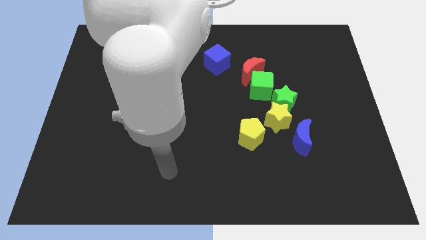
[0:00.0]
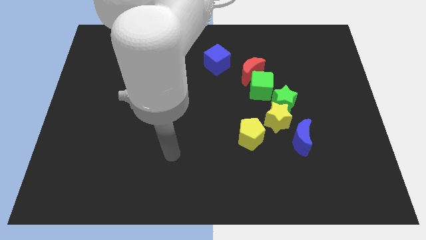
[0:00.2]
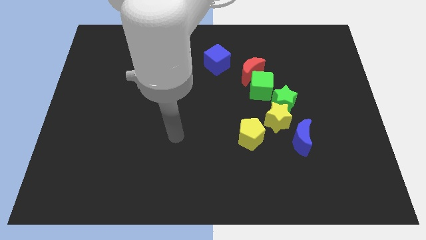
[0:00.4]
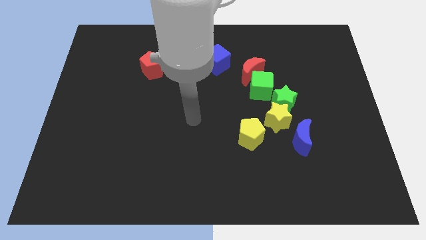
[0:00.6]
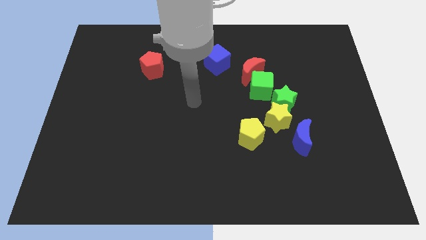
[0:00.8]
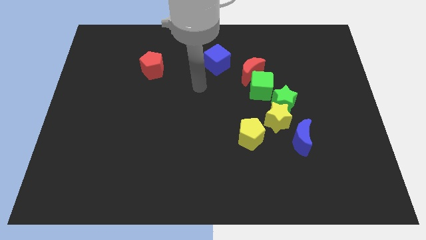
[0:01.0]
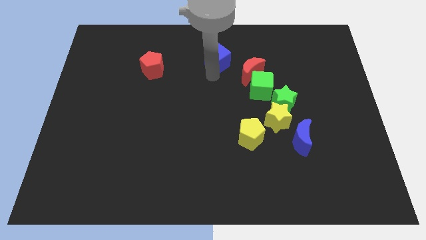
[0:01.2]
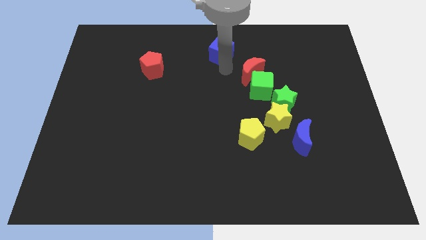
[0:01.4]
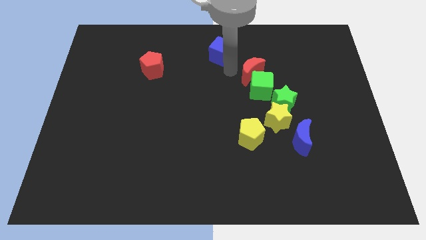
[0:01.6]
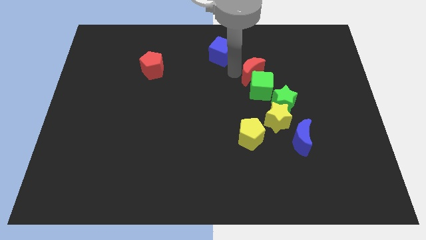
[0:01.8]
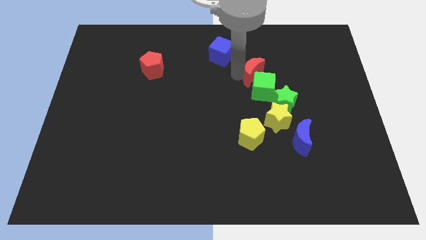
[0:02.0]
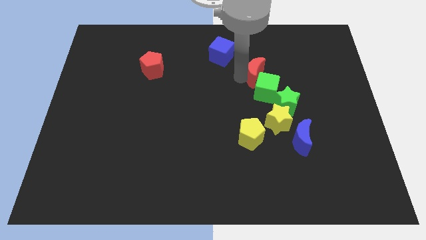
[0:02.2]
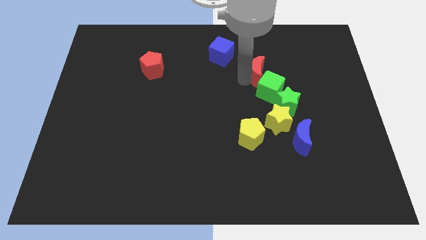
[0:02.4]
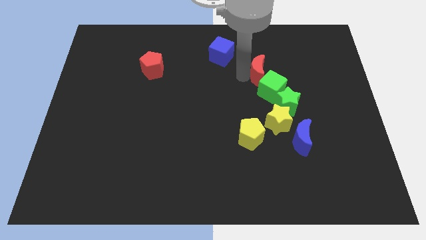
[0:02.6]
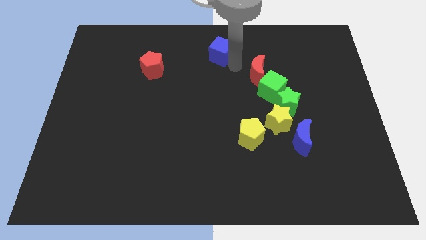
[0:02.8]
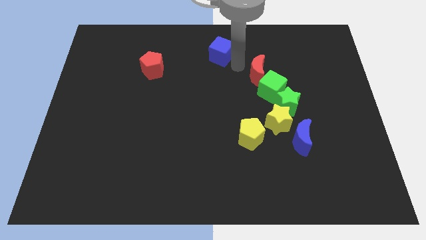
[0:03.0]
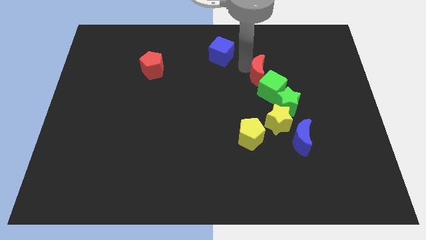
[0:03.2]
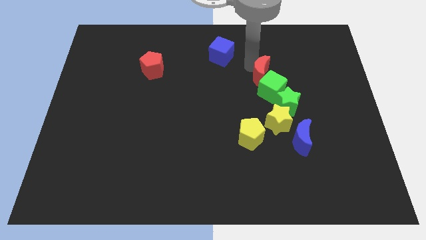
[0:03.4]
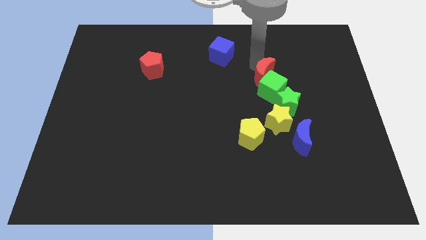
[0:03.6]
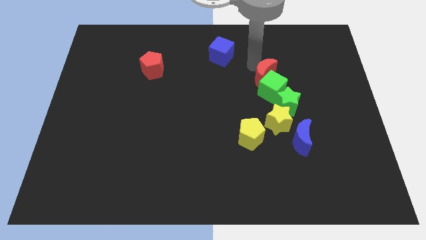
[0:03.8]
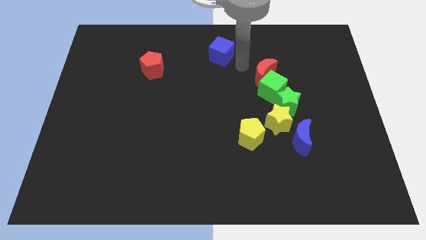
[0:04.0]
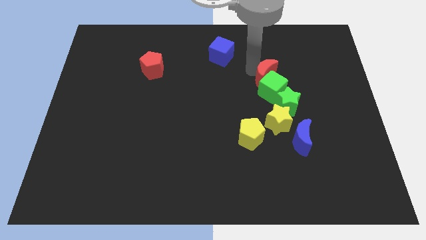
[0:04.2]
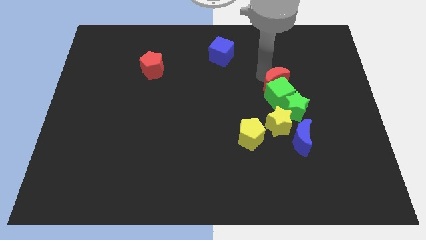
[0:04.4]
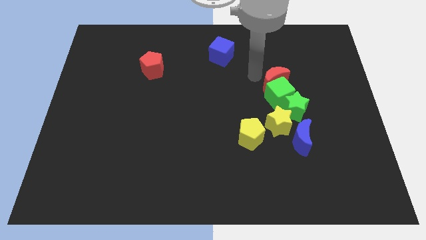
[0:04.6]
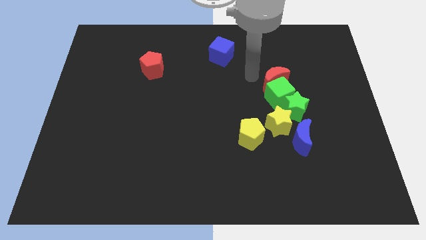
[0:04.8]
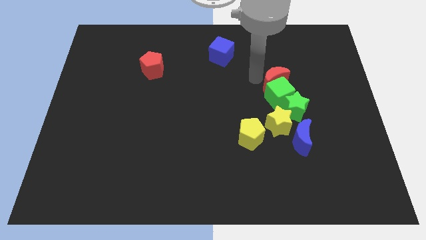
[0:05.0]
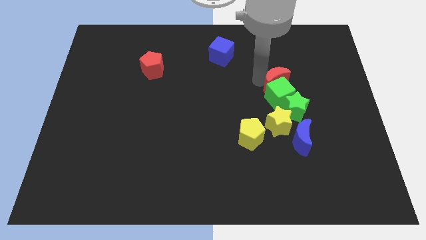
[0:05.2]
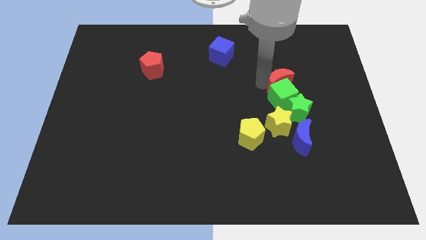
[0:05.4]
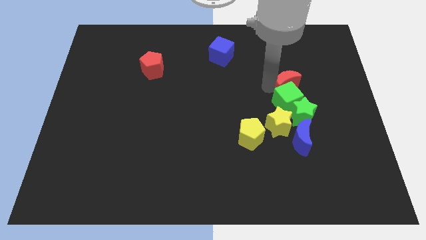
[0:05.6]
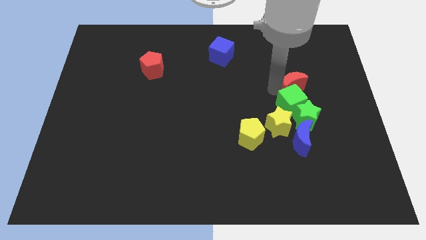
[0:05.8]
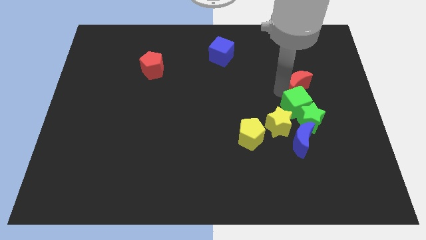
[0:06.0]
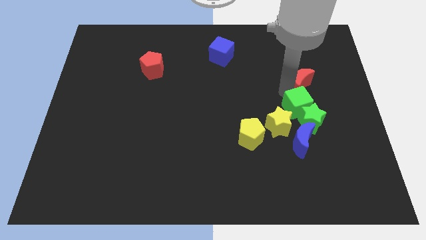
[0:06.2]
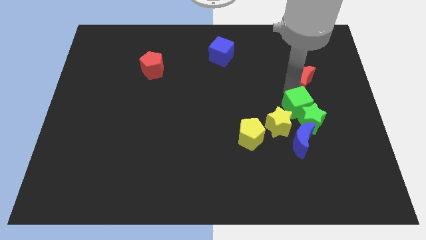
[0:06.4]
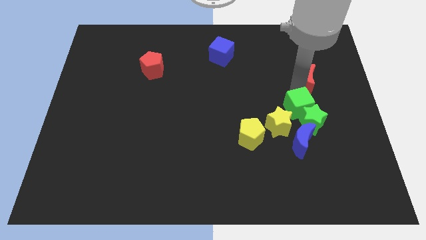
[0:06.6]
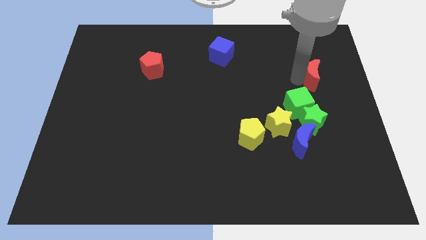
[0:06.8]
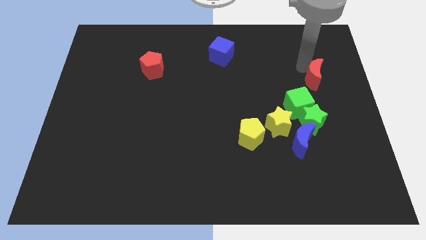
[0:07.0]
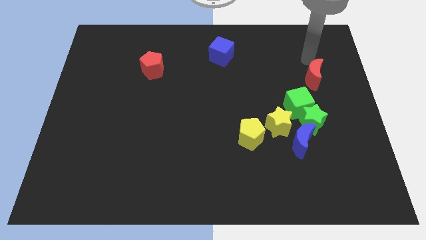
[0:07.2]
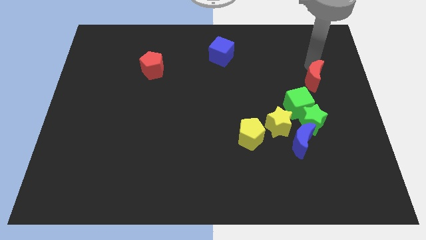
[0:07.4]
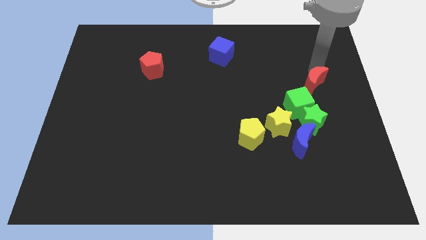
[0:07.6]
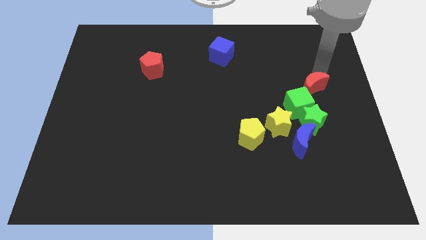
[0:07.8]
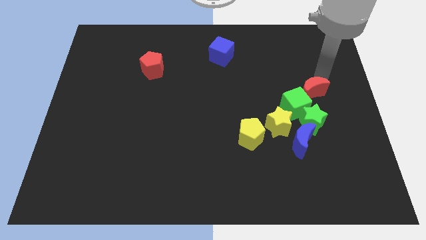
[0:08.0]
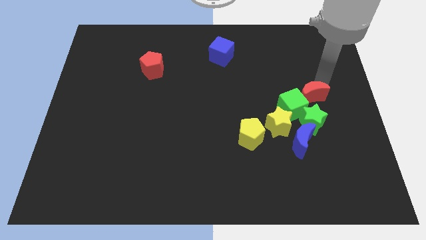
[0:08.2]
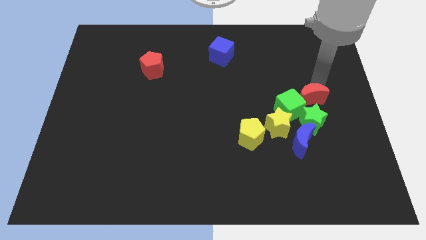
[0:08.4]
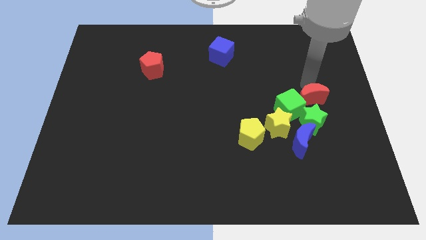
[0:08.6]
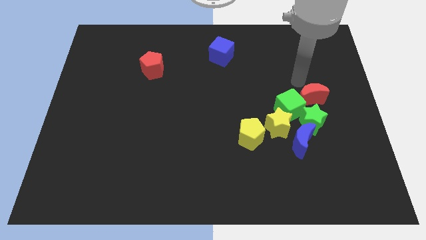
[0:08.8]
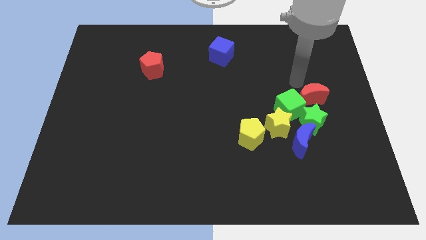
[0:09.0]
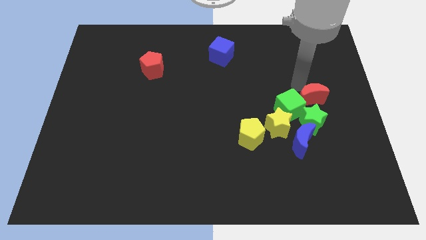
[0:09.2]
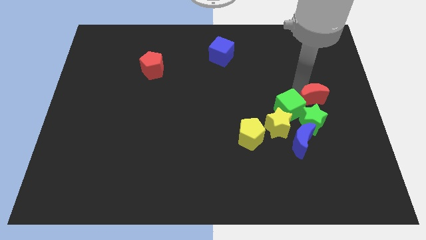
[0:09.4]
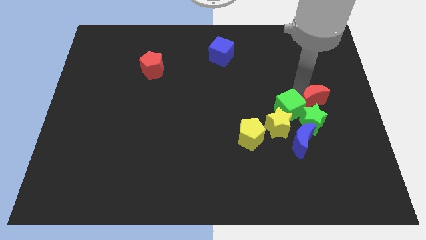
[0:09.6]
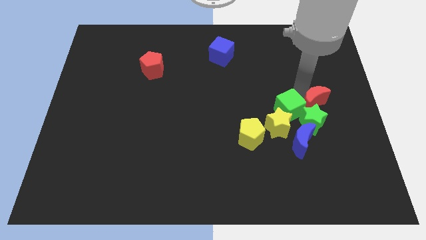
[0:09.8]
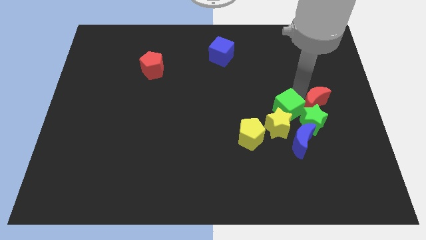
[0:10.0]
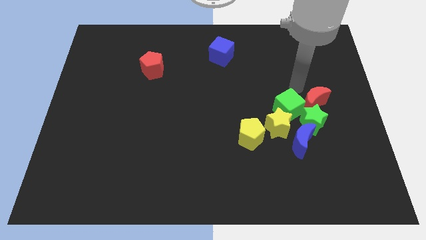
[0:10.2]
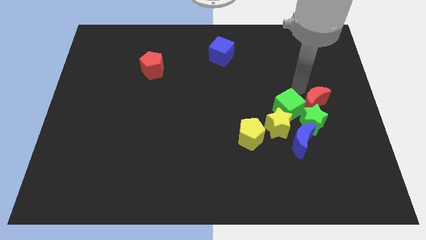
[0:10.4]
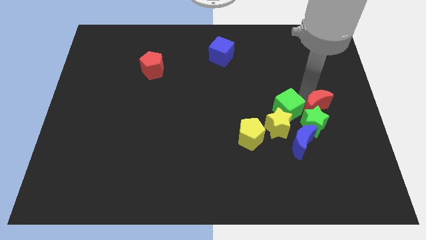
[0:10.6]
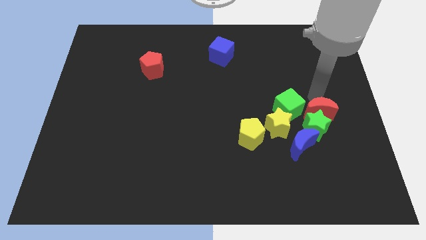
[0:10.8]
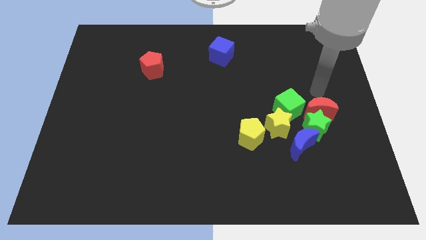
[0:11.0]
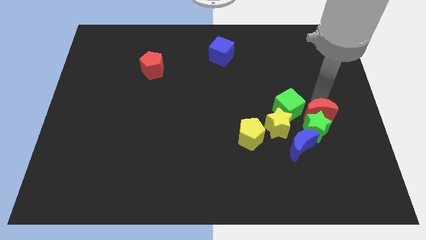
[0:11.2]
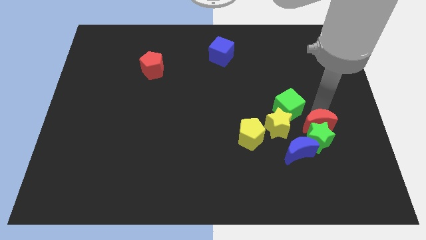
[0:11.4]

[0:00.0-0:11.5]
put the red moon right of the yellow pentagon
